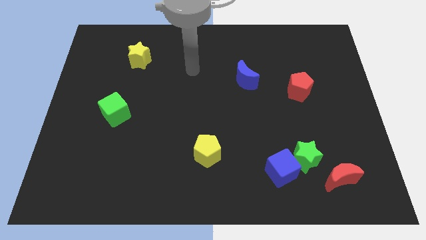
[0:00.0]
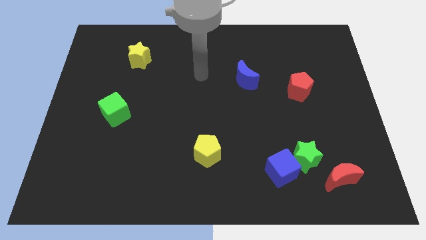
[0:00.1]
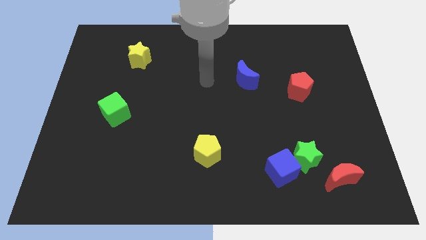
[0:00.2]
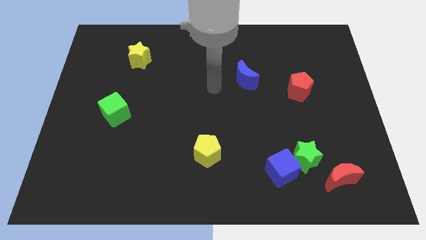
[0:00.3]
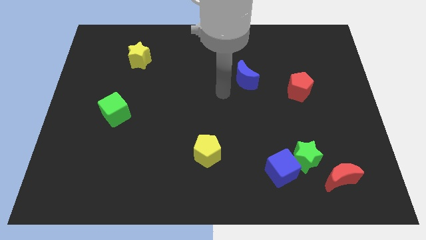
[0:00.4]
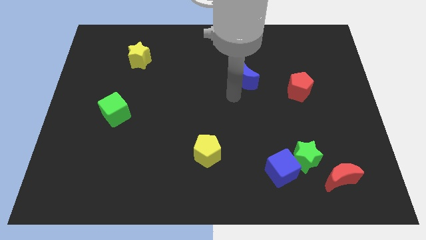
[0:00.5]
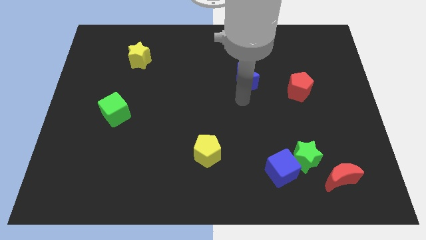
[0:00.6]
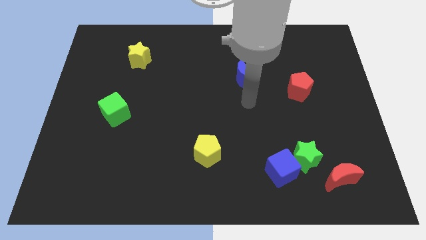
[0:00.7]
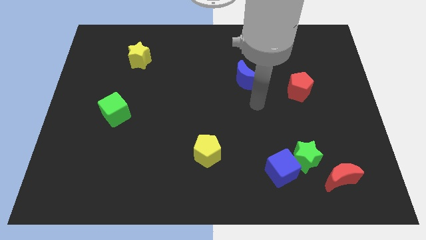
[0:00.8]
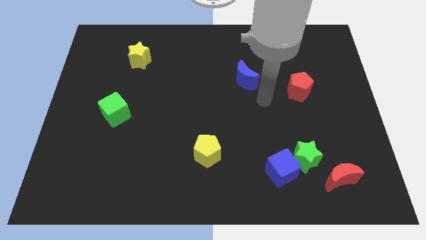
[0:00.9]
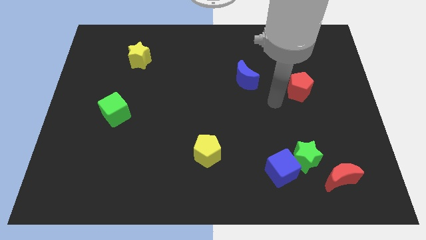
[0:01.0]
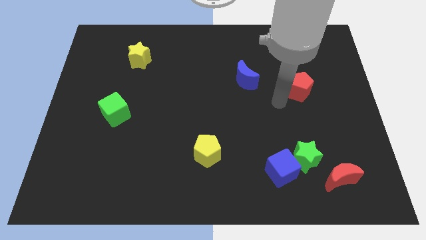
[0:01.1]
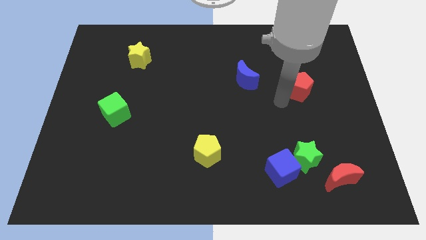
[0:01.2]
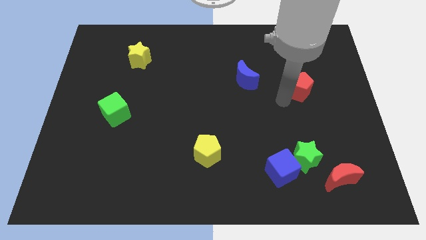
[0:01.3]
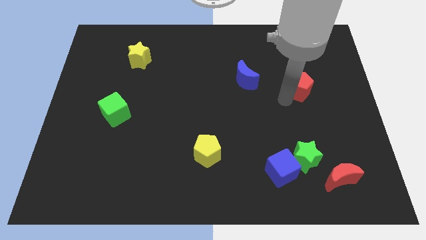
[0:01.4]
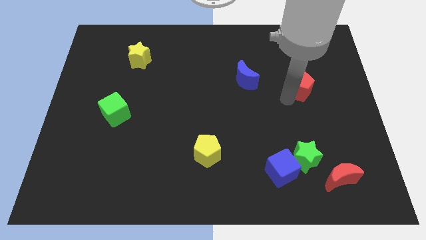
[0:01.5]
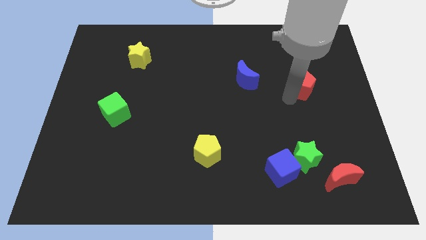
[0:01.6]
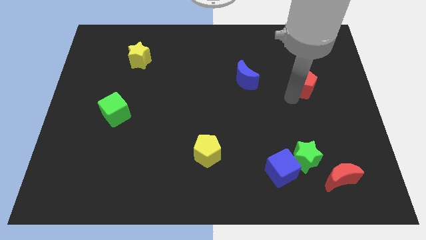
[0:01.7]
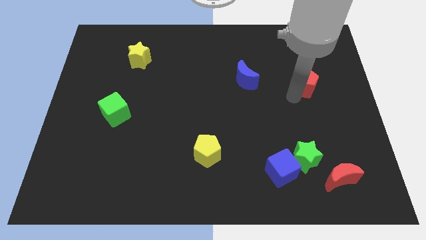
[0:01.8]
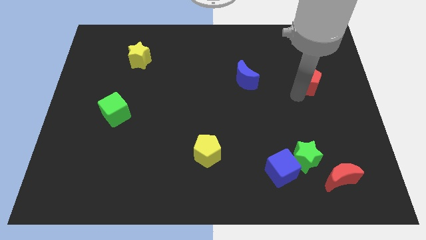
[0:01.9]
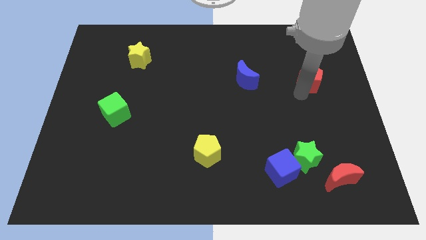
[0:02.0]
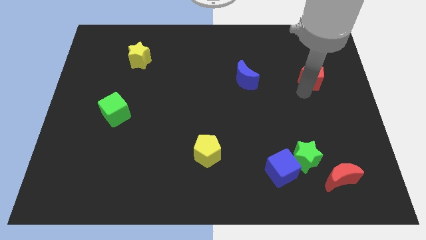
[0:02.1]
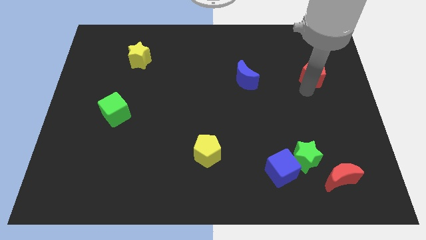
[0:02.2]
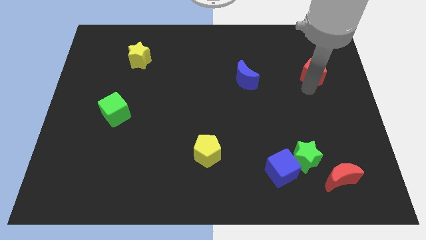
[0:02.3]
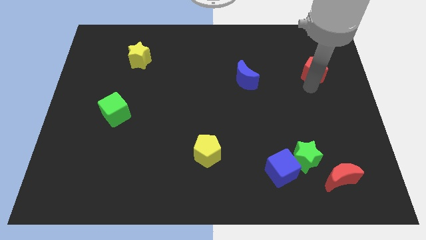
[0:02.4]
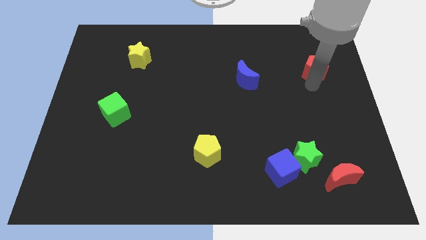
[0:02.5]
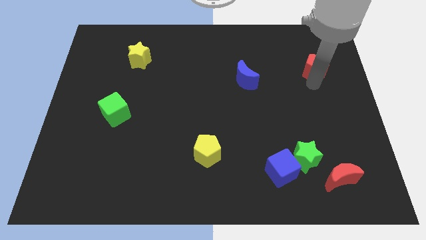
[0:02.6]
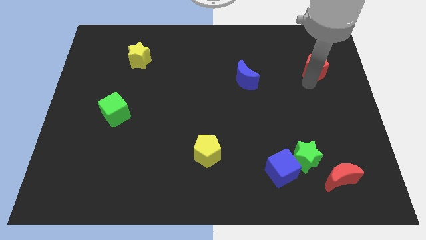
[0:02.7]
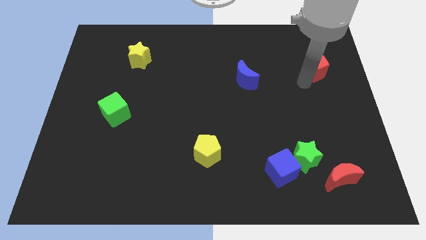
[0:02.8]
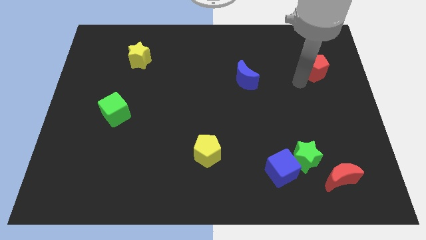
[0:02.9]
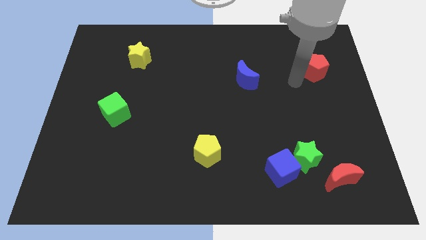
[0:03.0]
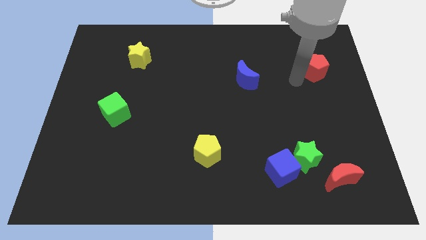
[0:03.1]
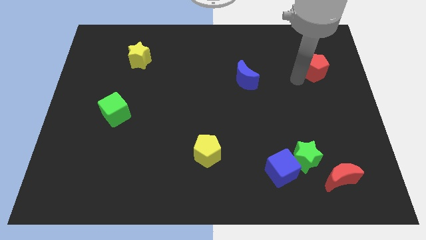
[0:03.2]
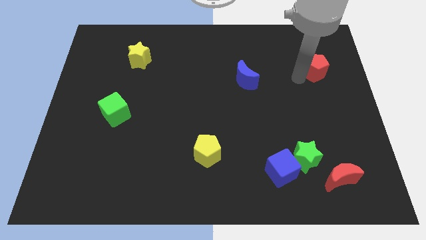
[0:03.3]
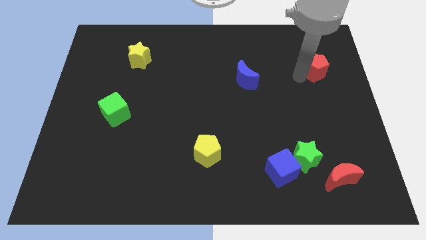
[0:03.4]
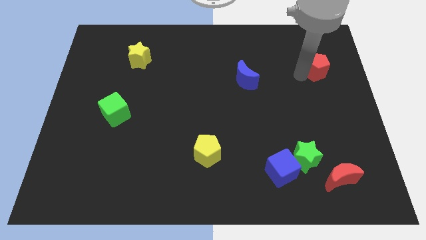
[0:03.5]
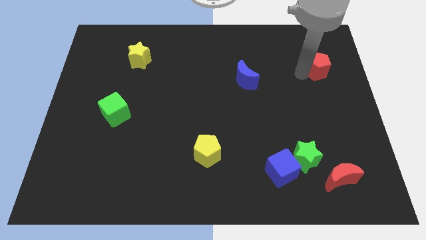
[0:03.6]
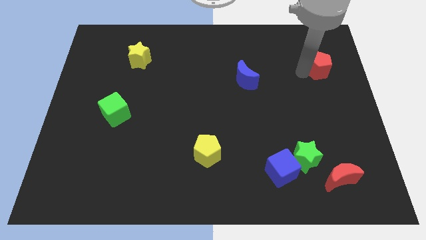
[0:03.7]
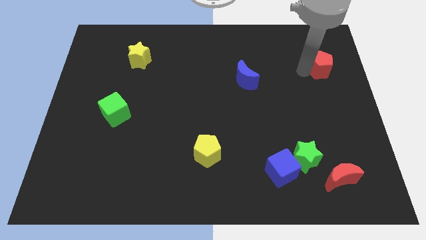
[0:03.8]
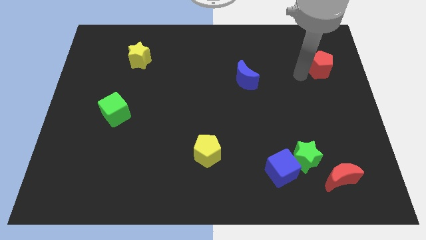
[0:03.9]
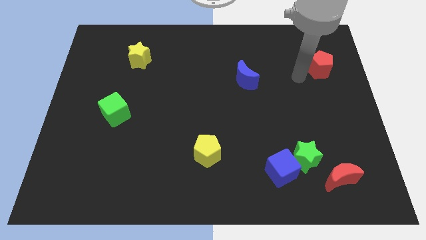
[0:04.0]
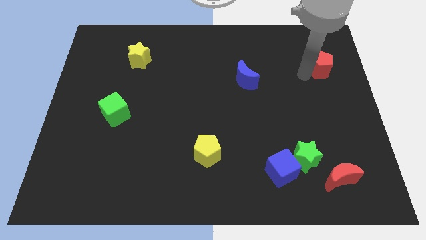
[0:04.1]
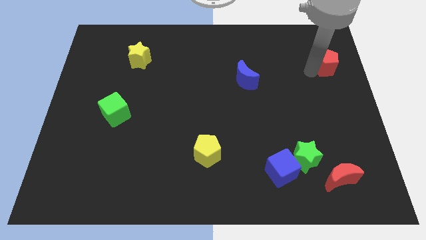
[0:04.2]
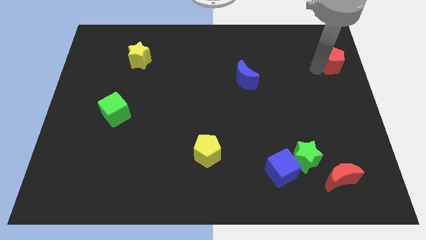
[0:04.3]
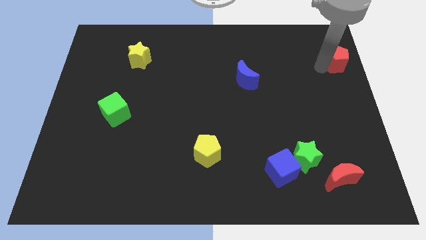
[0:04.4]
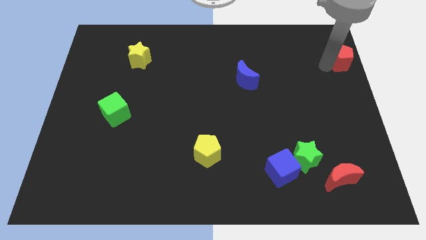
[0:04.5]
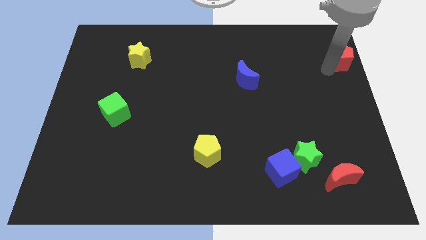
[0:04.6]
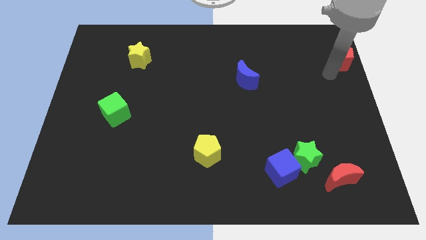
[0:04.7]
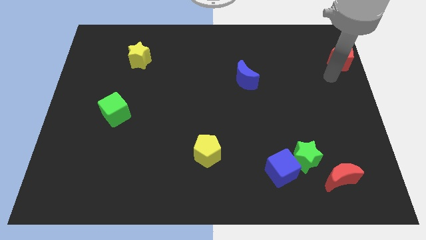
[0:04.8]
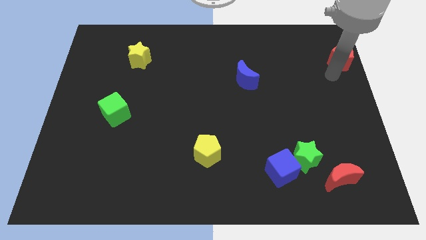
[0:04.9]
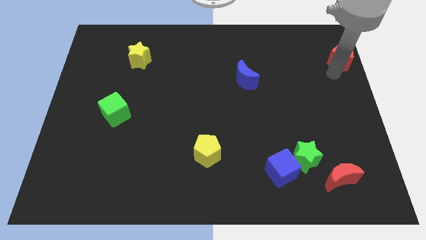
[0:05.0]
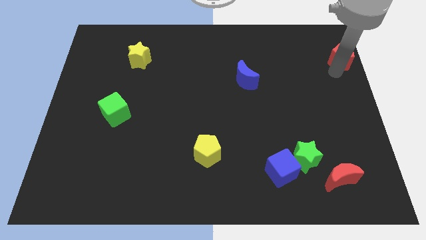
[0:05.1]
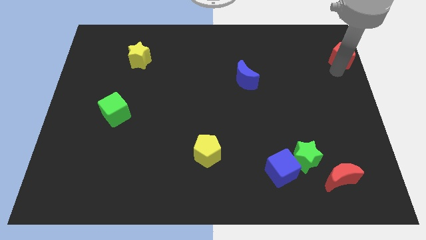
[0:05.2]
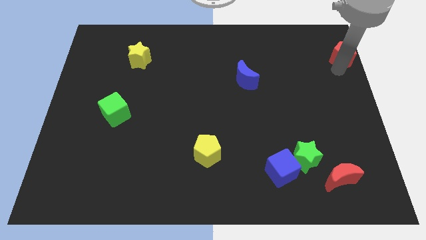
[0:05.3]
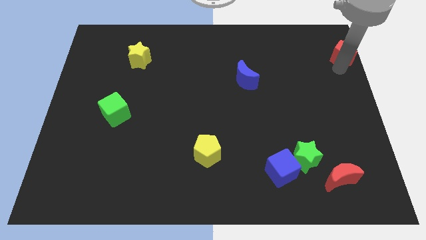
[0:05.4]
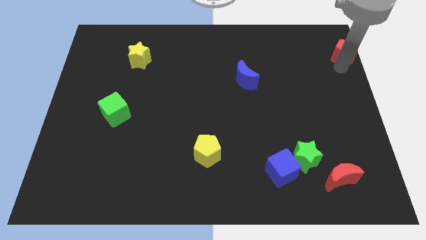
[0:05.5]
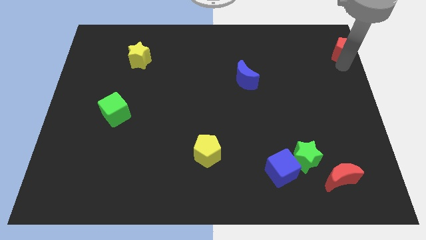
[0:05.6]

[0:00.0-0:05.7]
slide the red pentagon to the top right corner
